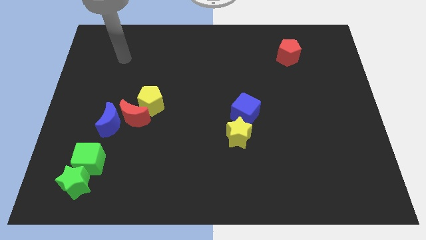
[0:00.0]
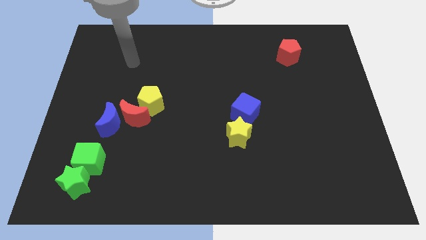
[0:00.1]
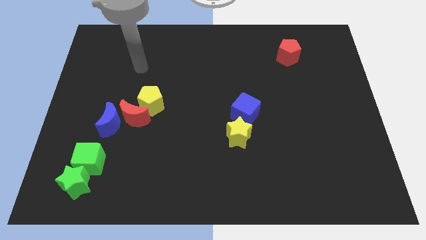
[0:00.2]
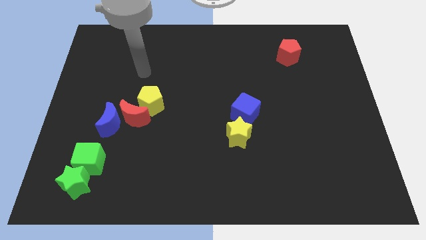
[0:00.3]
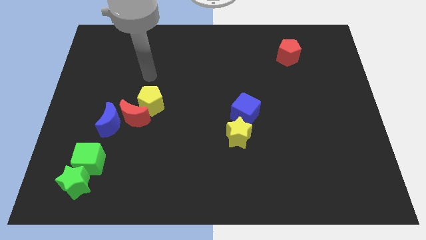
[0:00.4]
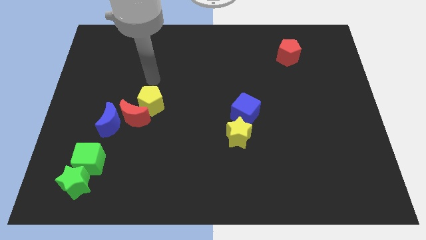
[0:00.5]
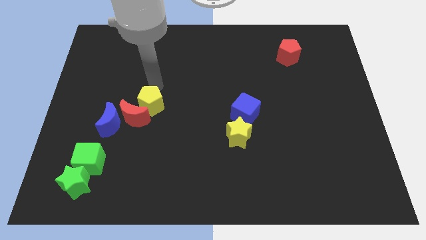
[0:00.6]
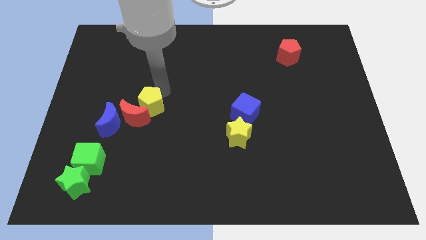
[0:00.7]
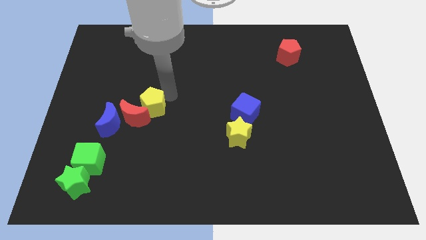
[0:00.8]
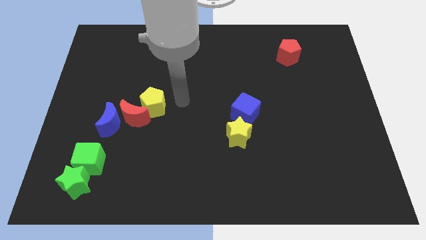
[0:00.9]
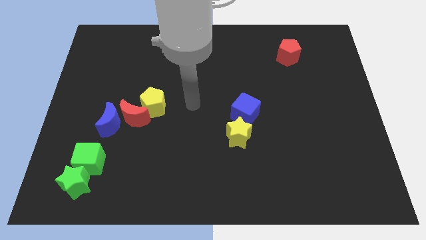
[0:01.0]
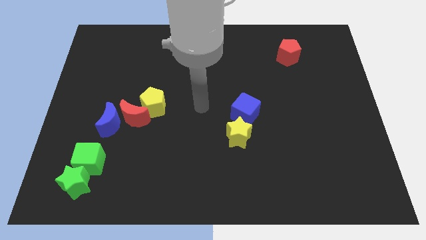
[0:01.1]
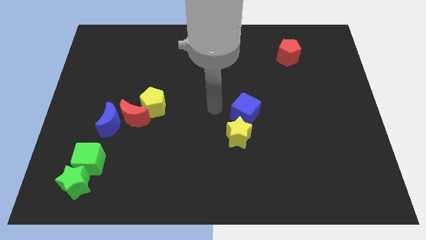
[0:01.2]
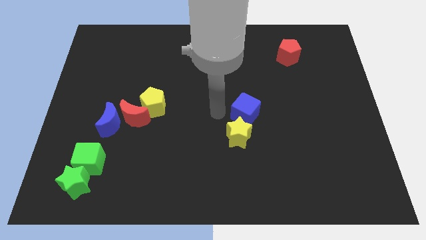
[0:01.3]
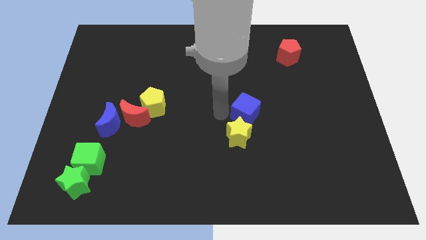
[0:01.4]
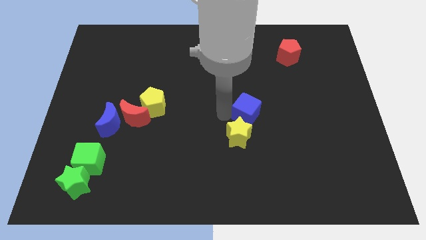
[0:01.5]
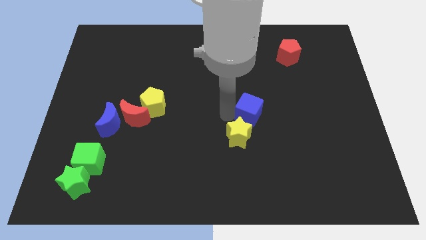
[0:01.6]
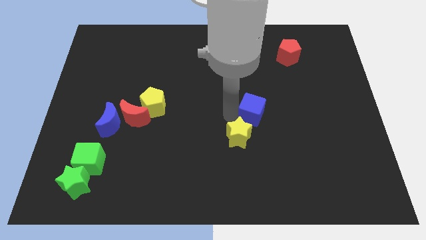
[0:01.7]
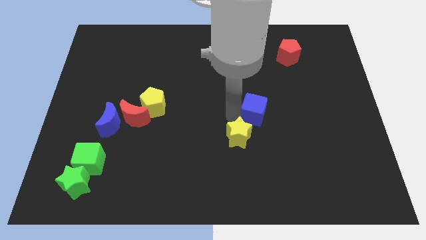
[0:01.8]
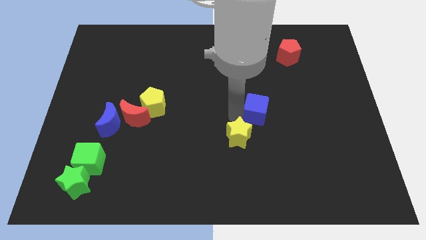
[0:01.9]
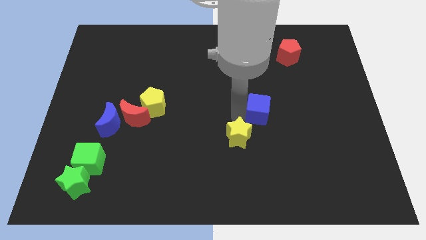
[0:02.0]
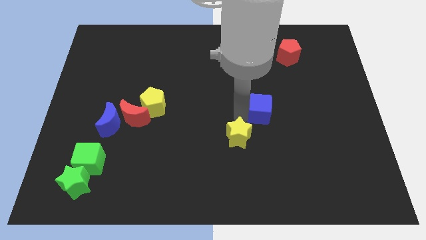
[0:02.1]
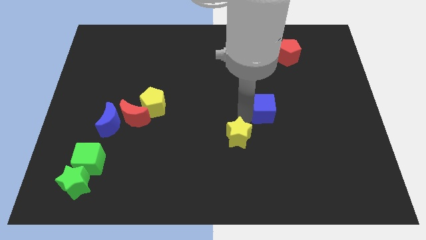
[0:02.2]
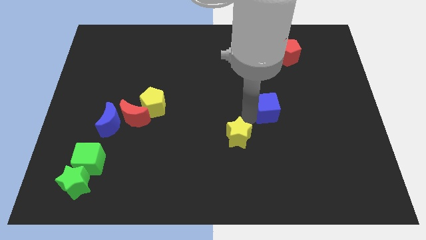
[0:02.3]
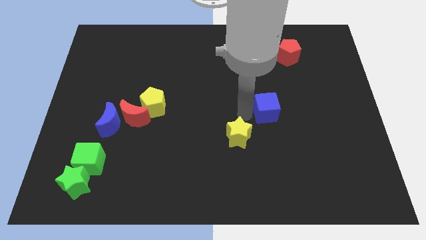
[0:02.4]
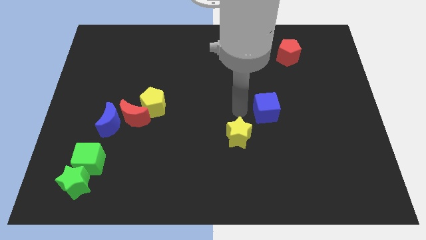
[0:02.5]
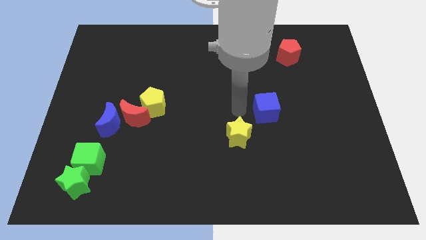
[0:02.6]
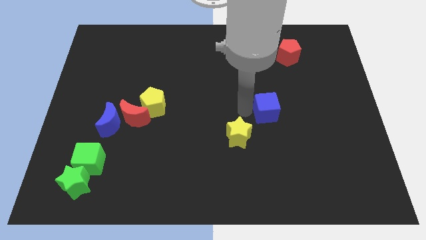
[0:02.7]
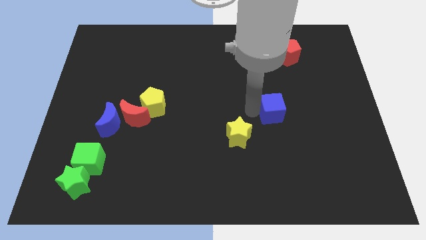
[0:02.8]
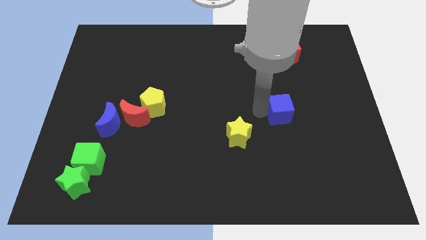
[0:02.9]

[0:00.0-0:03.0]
slightly push the blue cube right

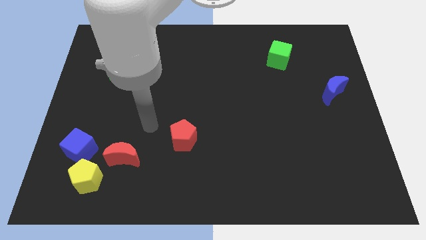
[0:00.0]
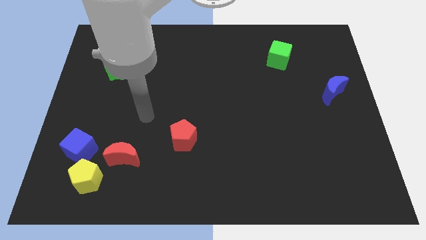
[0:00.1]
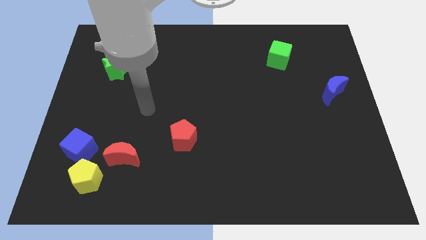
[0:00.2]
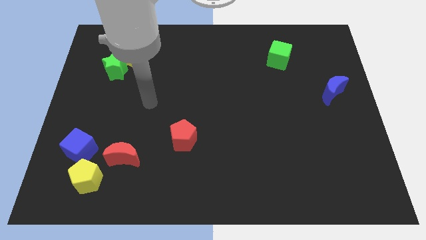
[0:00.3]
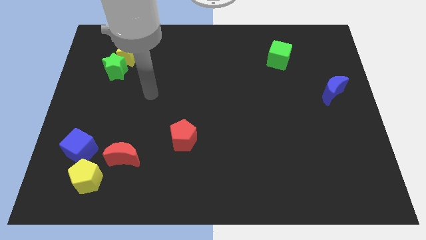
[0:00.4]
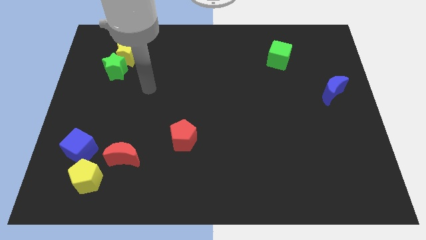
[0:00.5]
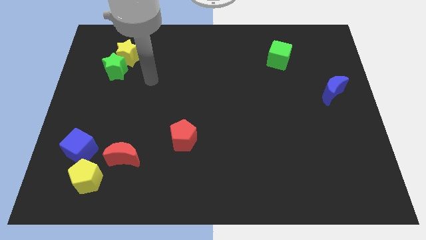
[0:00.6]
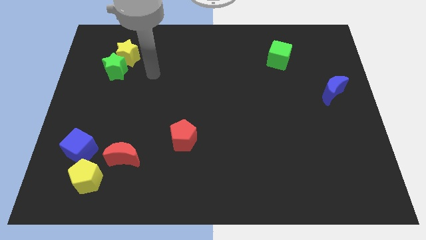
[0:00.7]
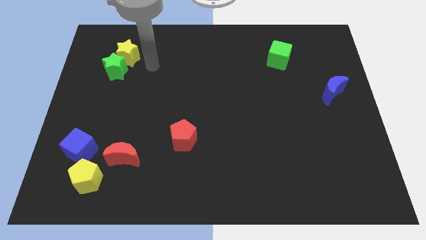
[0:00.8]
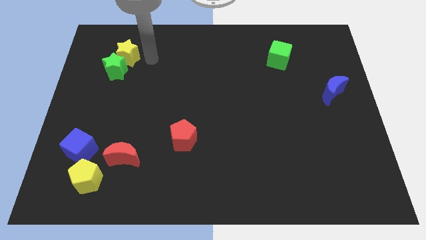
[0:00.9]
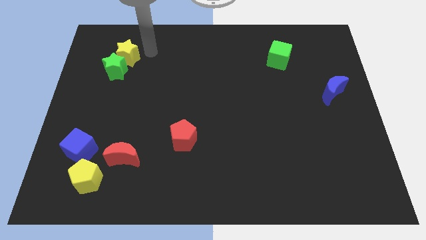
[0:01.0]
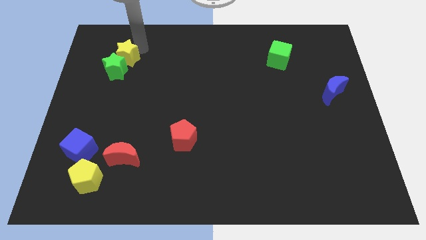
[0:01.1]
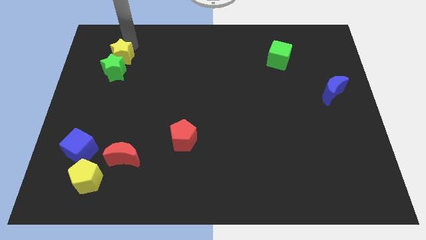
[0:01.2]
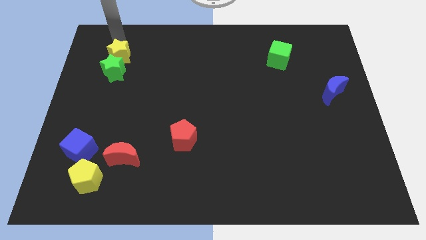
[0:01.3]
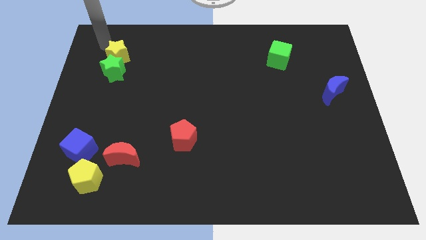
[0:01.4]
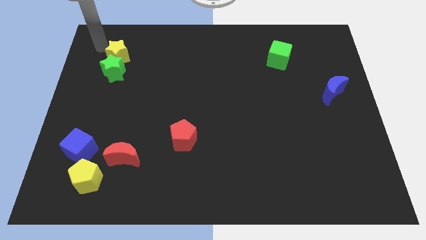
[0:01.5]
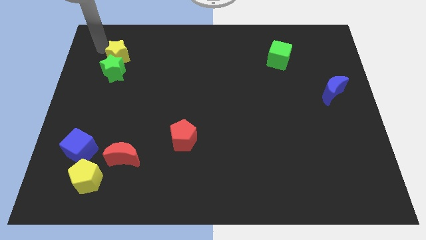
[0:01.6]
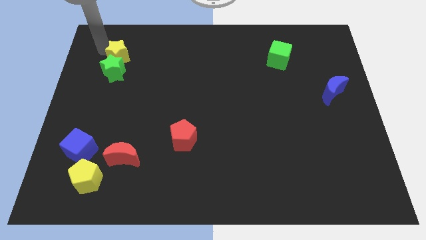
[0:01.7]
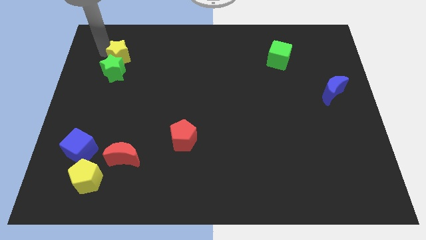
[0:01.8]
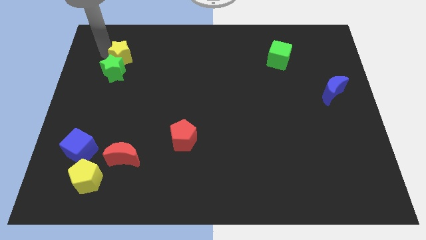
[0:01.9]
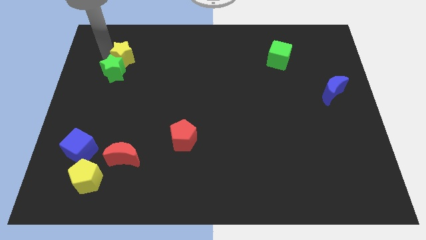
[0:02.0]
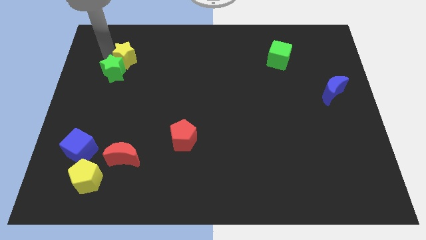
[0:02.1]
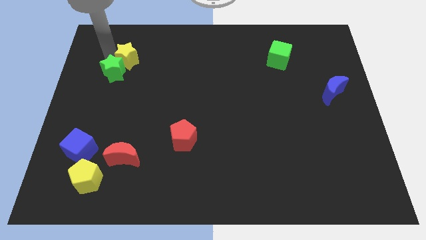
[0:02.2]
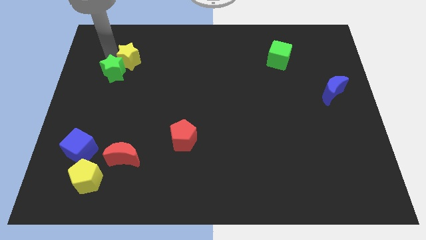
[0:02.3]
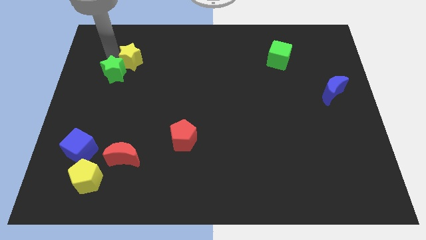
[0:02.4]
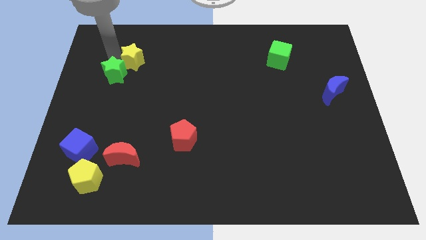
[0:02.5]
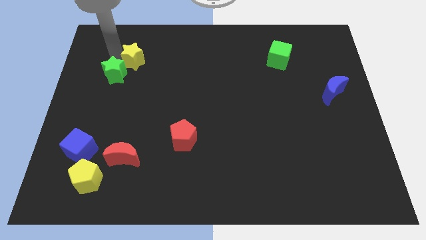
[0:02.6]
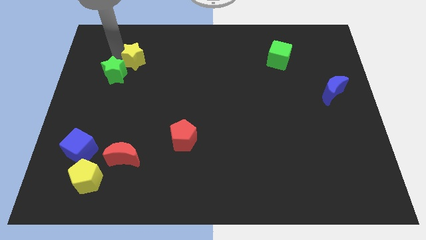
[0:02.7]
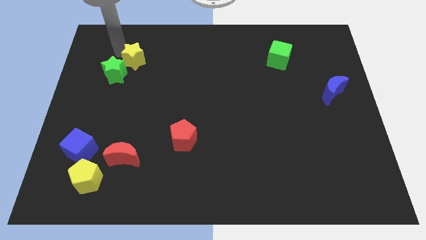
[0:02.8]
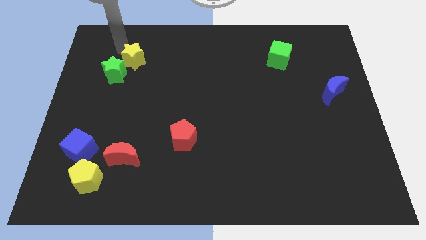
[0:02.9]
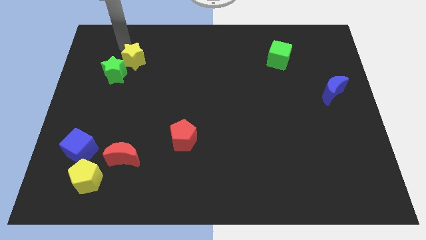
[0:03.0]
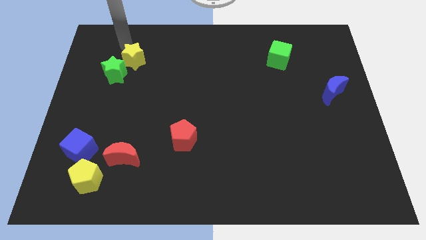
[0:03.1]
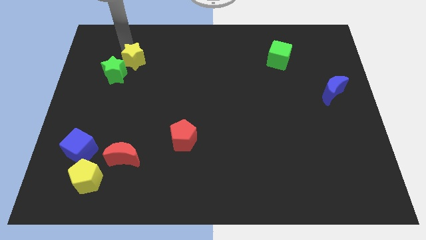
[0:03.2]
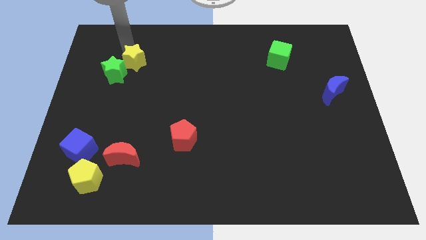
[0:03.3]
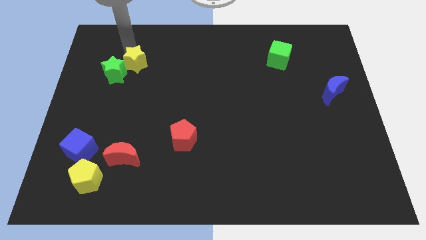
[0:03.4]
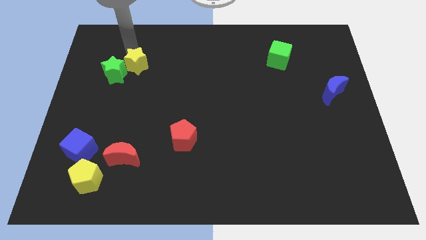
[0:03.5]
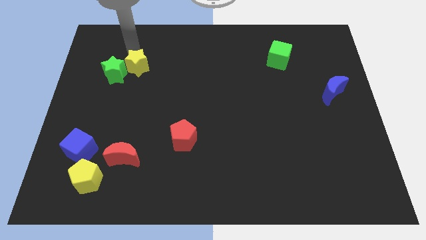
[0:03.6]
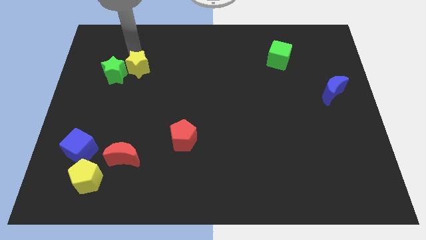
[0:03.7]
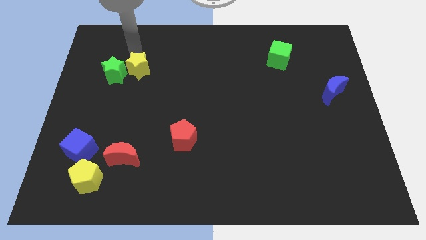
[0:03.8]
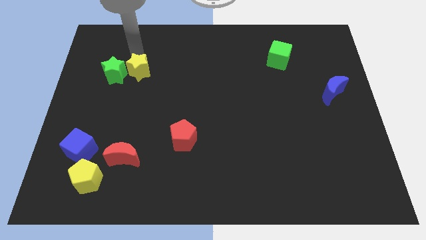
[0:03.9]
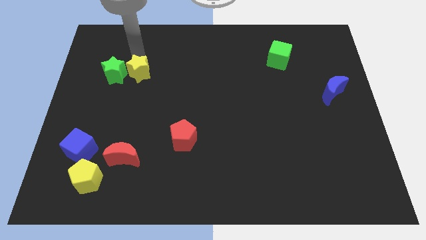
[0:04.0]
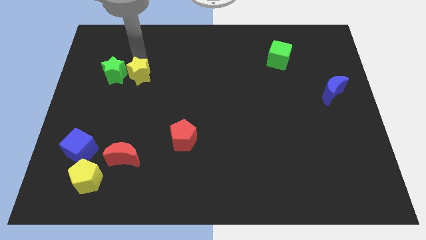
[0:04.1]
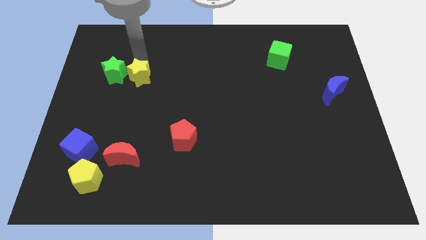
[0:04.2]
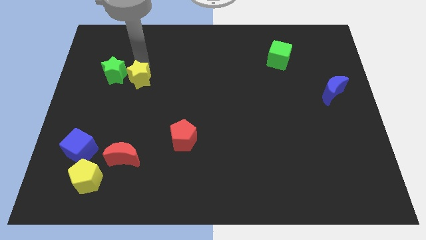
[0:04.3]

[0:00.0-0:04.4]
push the yellow star somewhat down

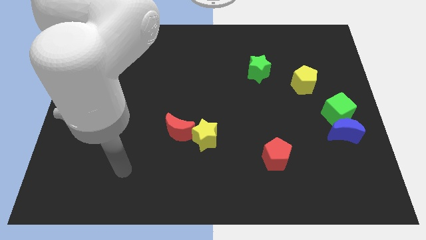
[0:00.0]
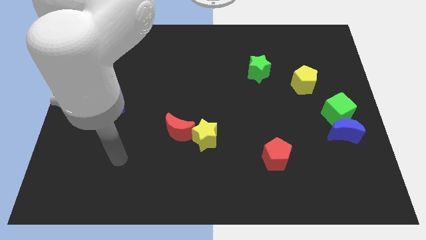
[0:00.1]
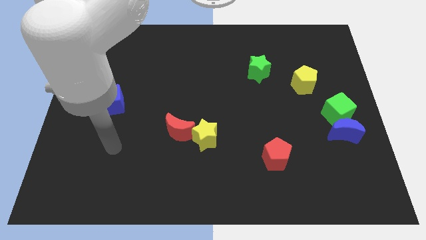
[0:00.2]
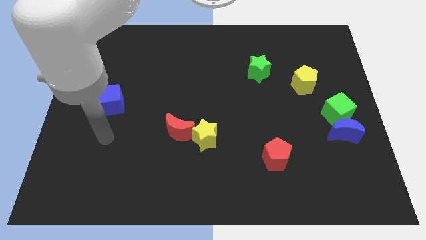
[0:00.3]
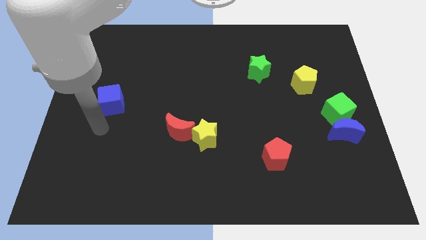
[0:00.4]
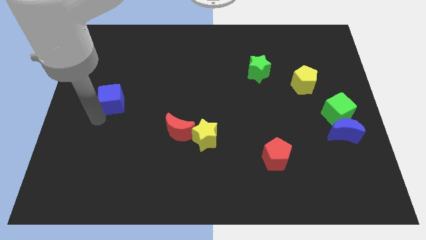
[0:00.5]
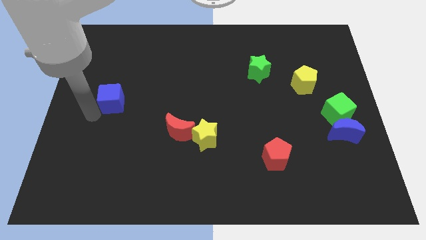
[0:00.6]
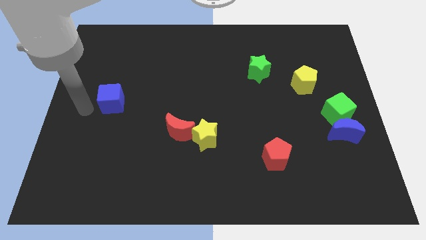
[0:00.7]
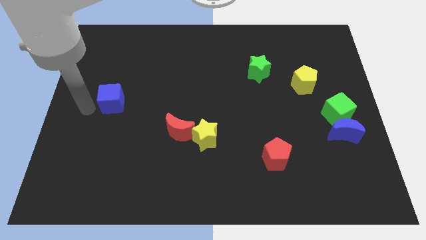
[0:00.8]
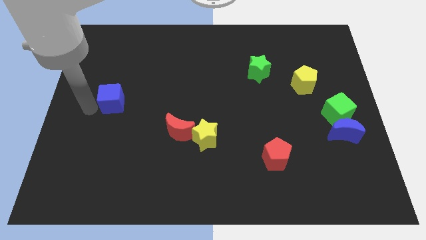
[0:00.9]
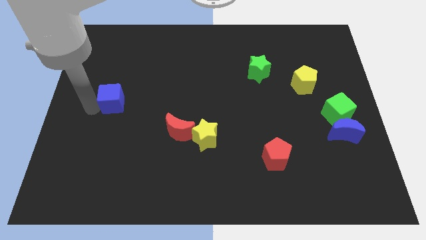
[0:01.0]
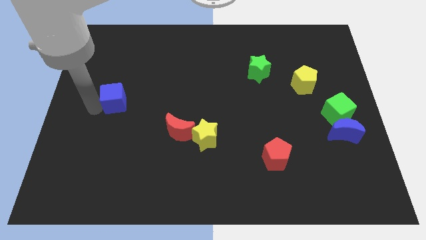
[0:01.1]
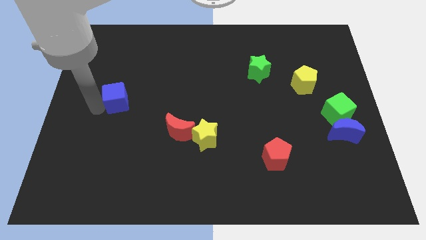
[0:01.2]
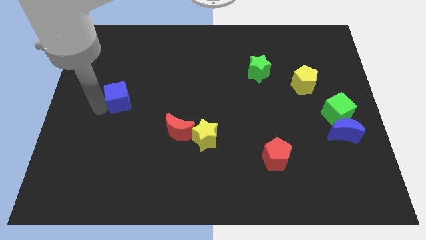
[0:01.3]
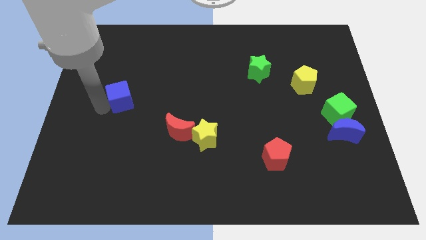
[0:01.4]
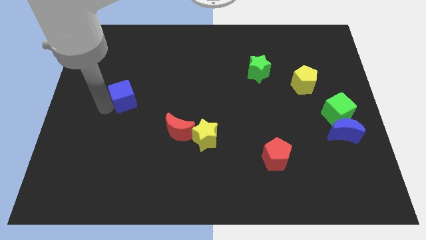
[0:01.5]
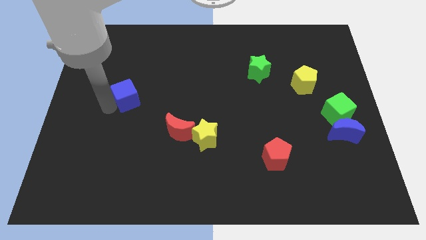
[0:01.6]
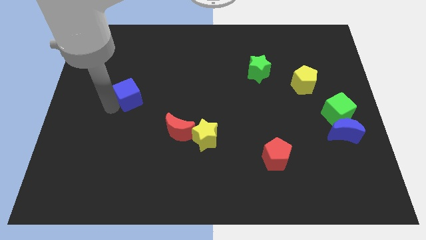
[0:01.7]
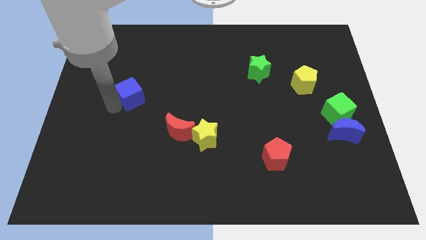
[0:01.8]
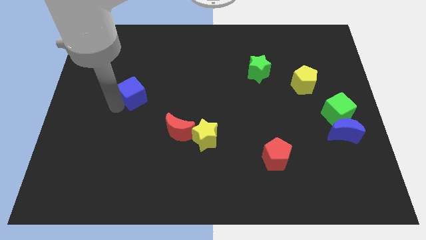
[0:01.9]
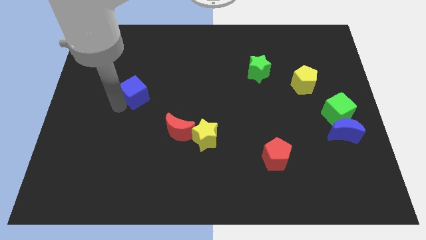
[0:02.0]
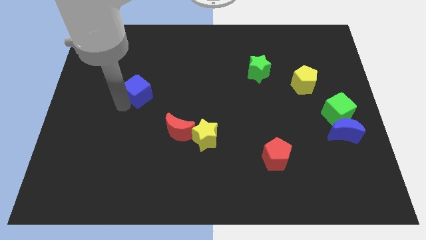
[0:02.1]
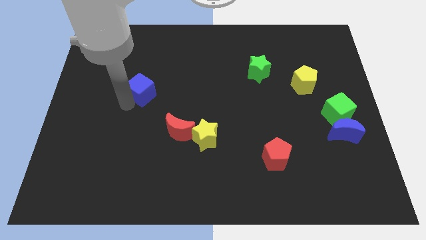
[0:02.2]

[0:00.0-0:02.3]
slide the blue cube up and to the right a bit
